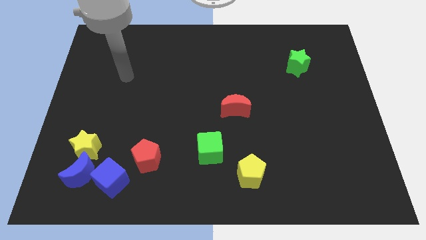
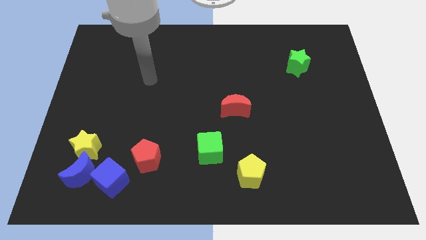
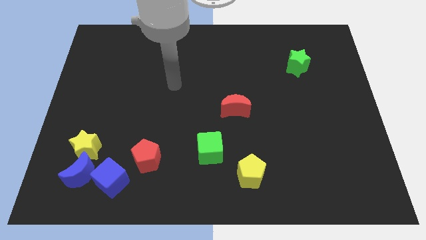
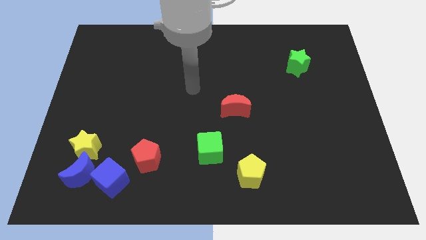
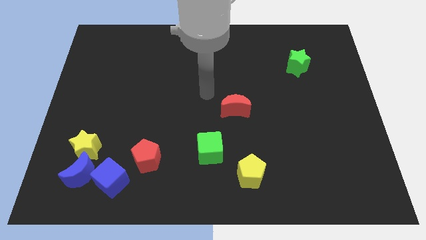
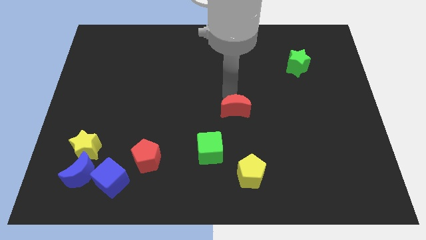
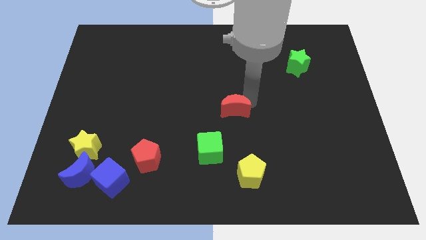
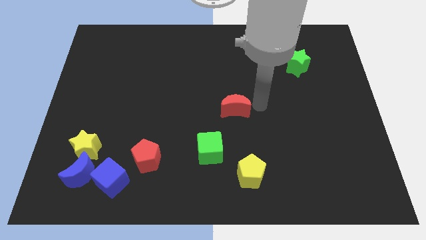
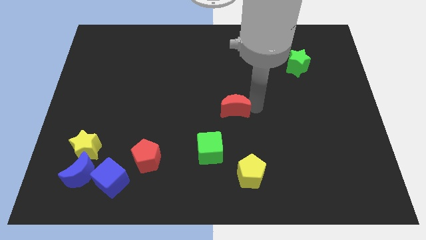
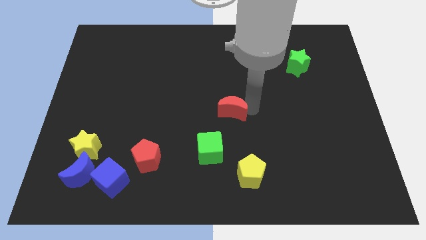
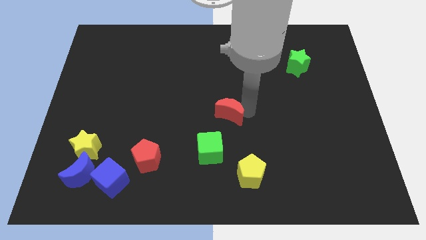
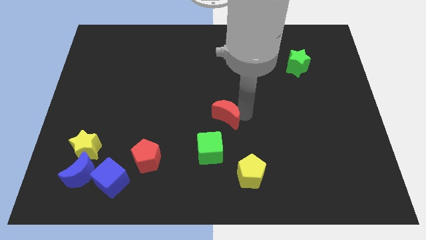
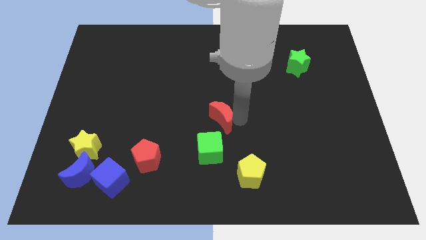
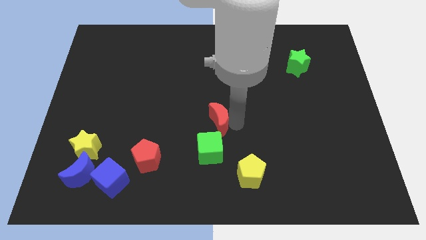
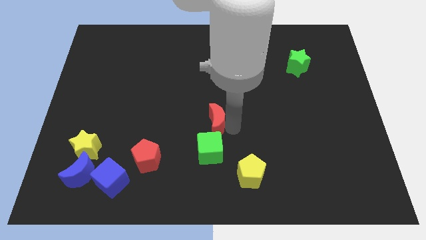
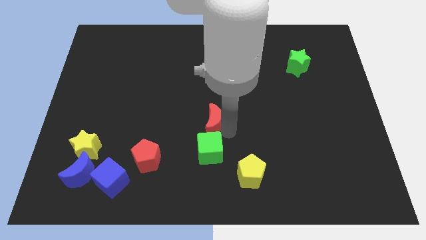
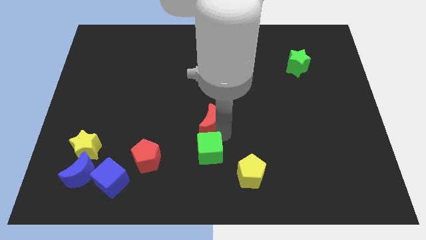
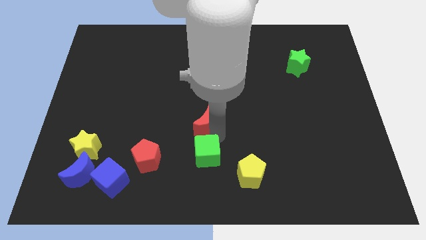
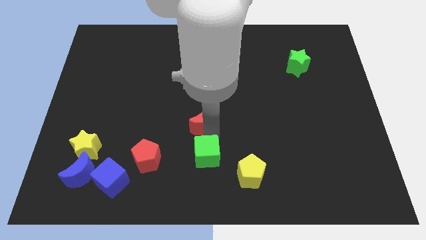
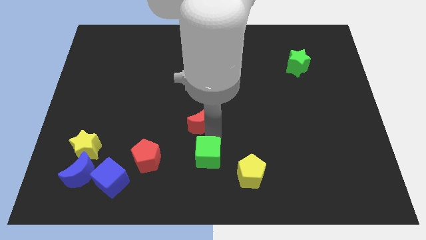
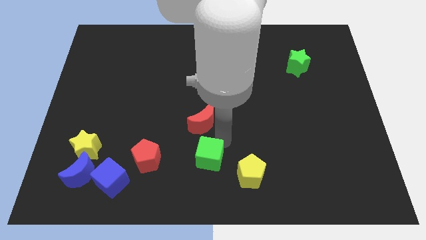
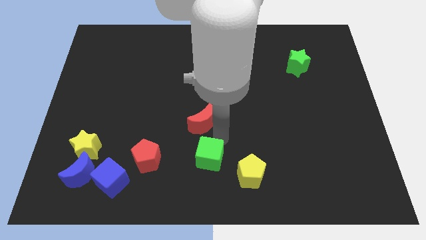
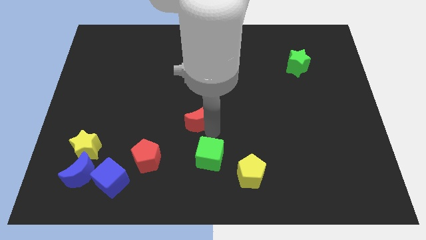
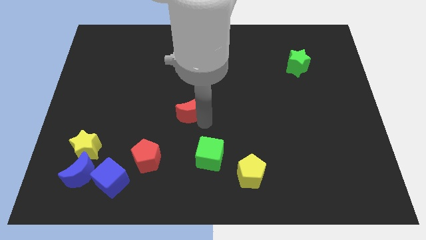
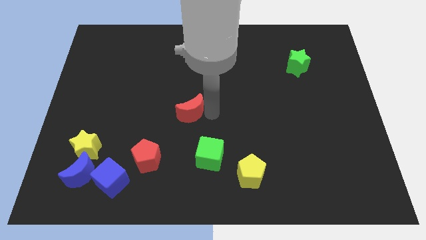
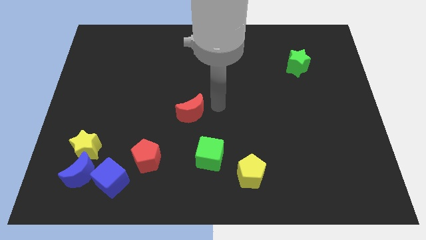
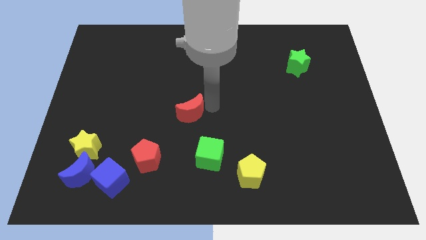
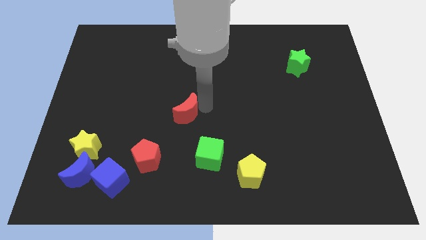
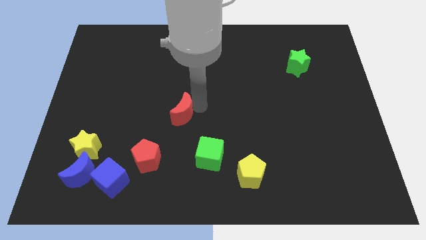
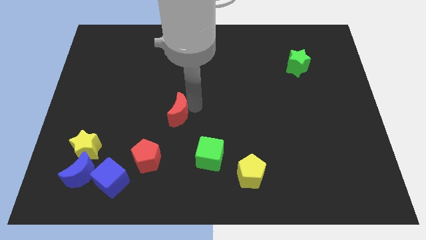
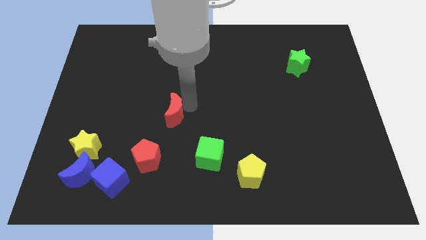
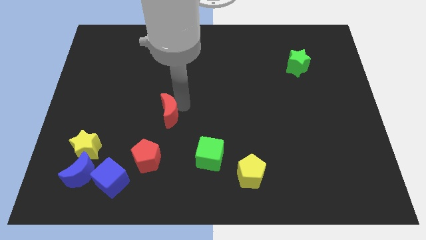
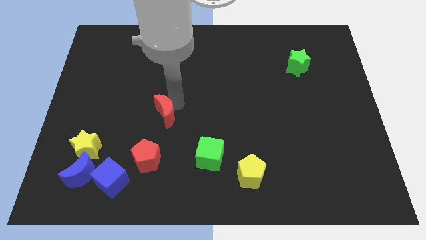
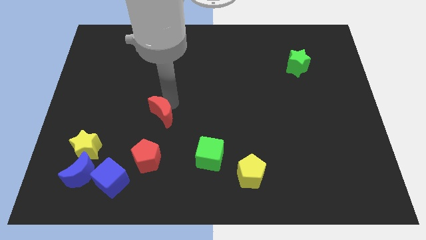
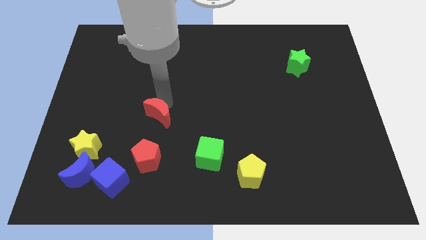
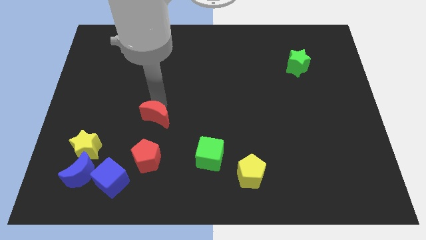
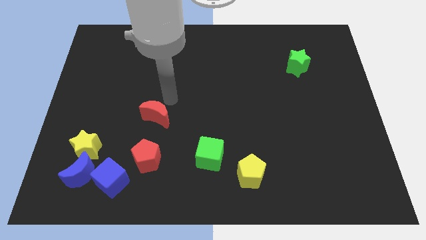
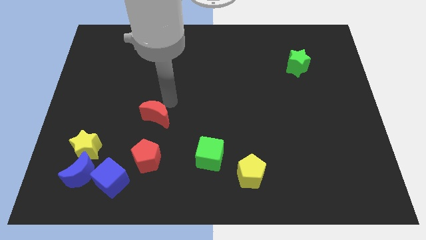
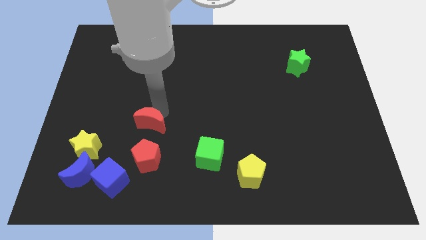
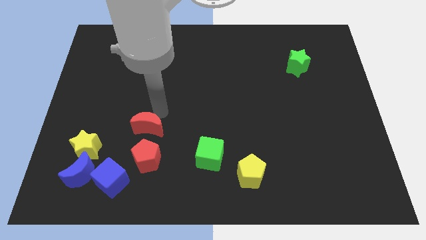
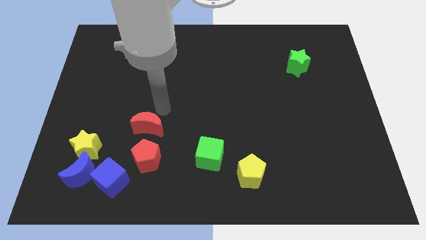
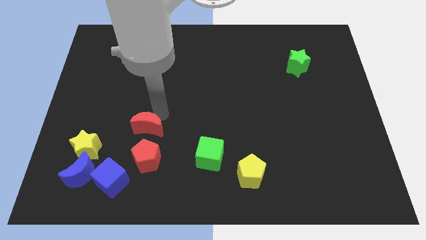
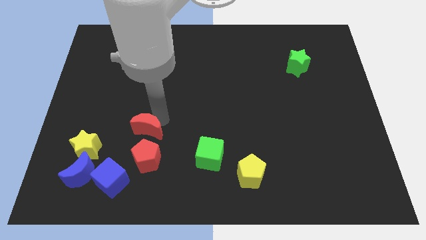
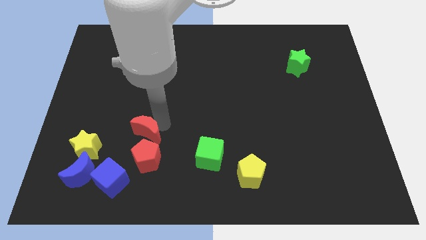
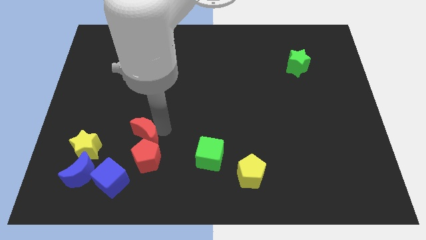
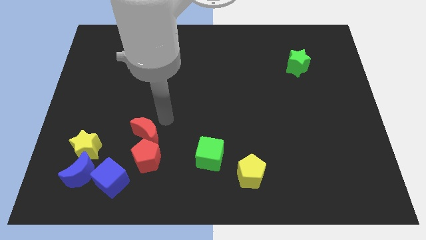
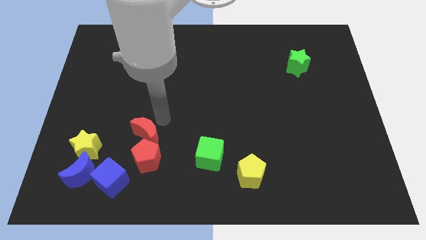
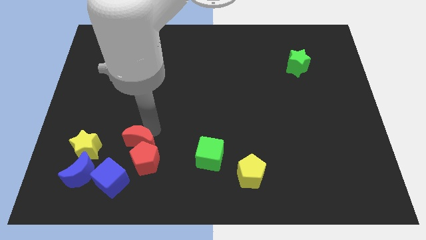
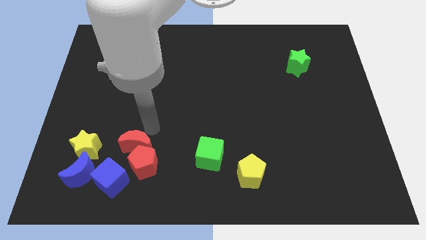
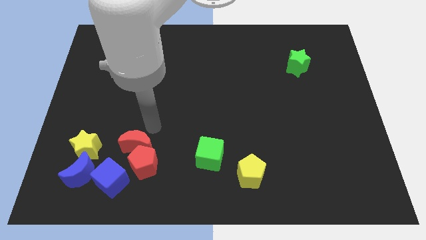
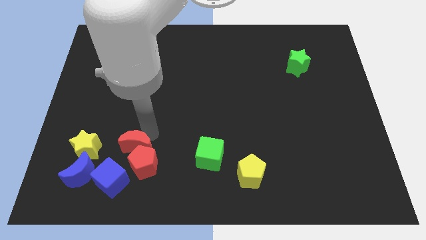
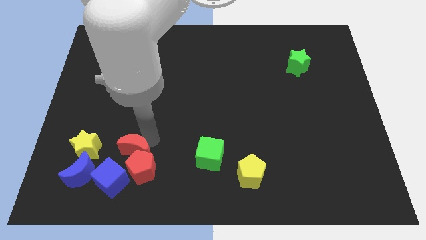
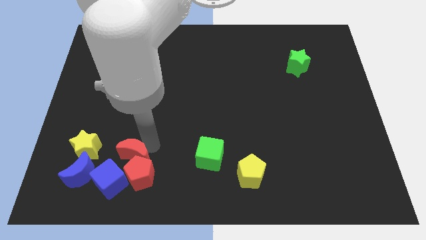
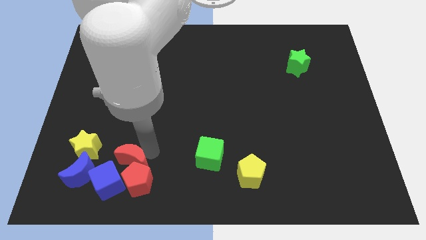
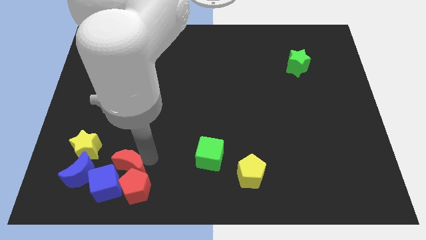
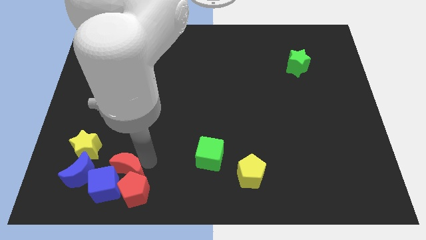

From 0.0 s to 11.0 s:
push the red moon close to the blue cube

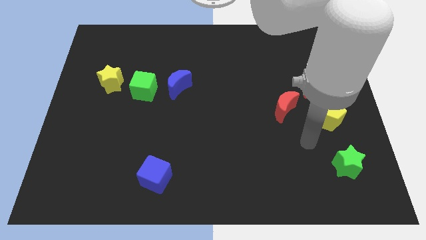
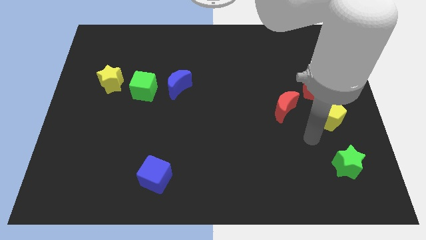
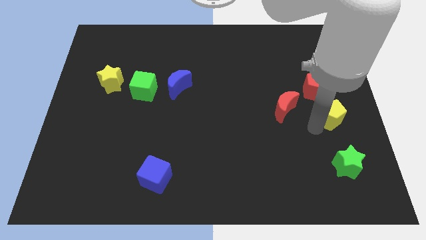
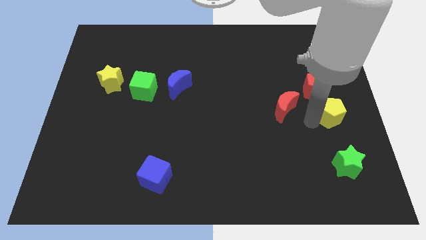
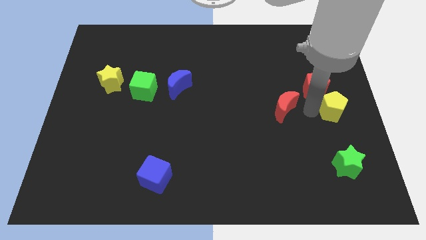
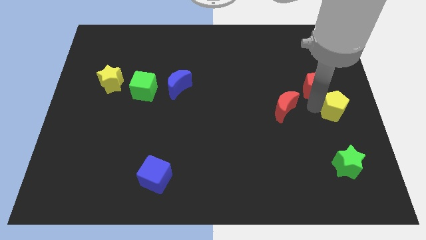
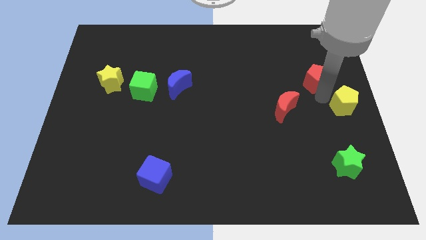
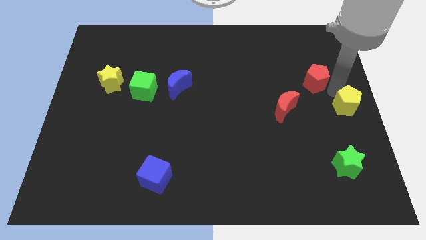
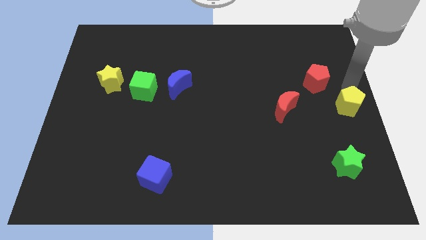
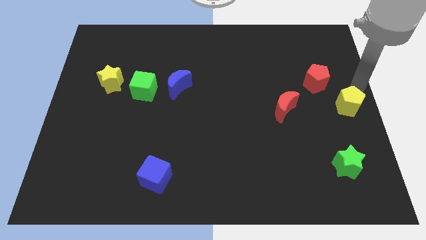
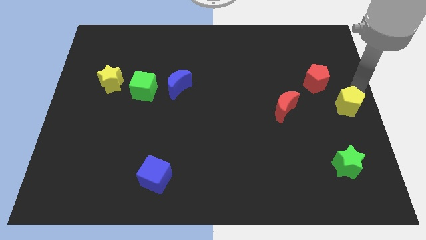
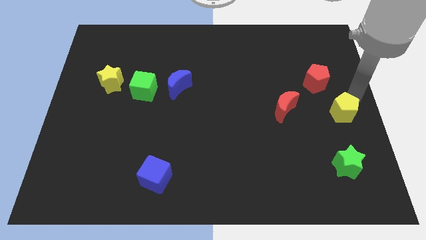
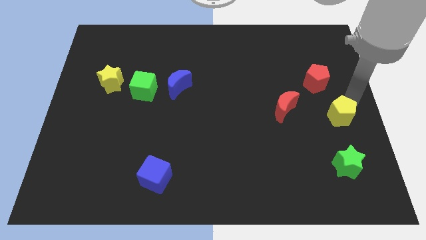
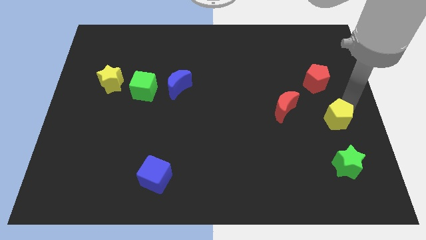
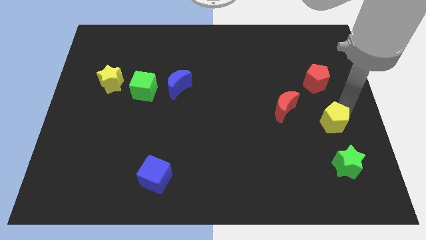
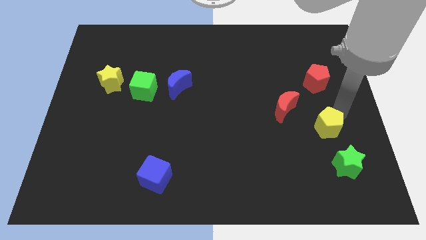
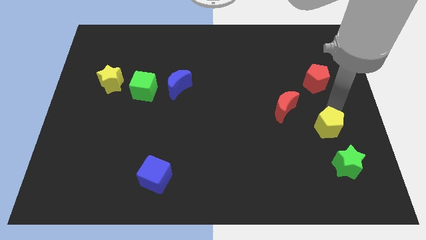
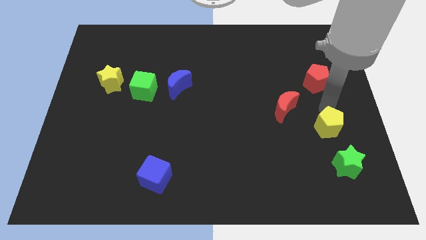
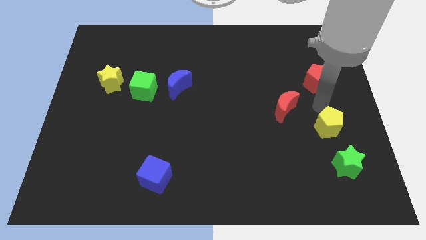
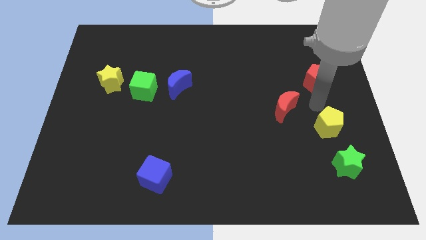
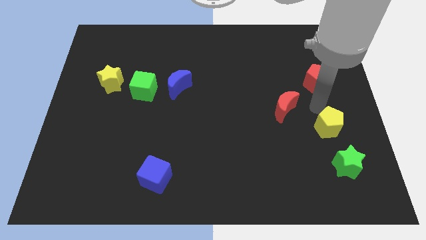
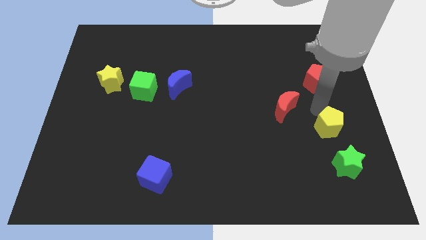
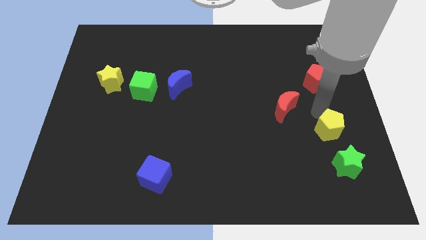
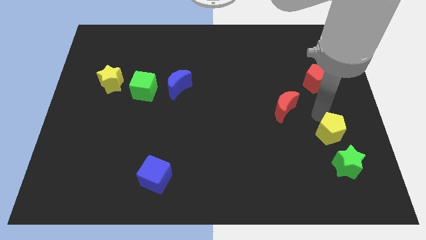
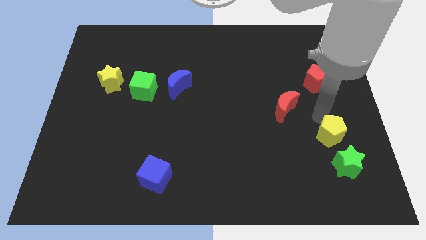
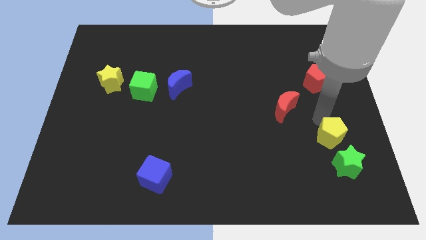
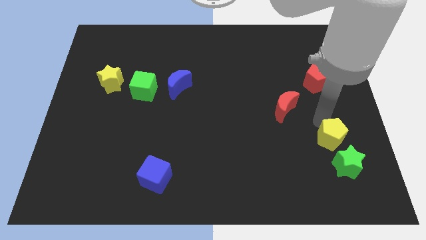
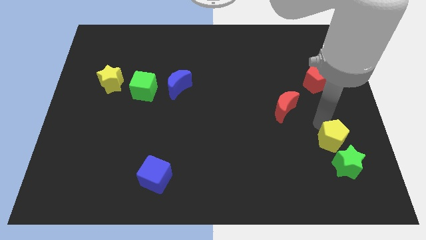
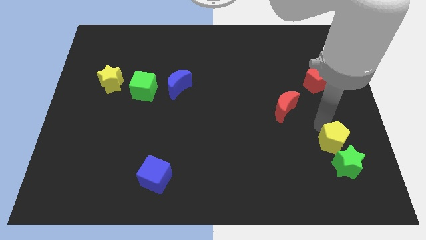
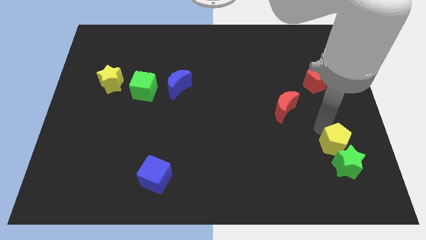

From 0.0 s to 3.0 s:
move the yellow pentagon next to the green star
